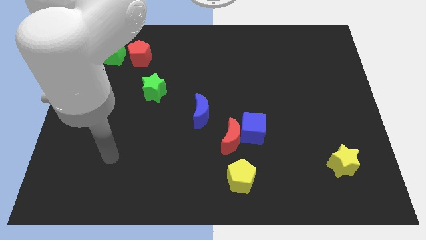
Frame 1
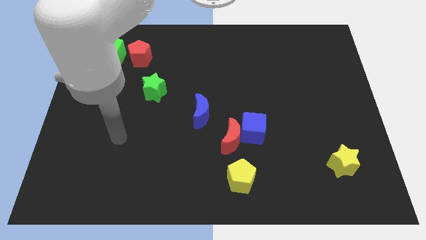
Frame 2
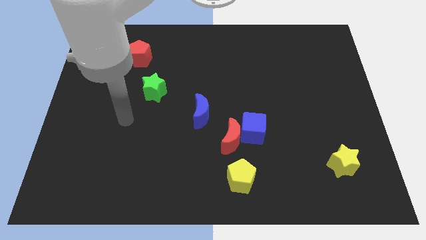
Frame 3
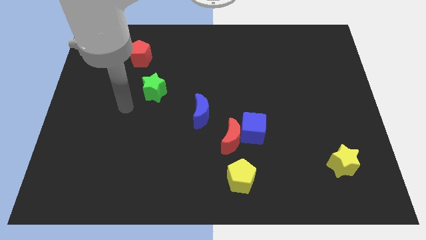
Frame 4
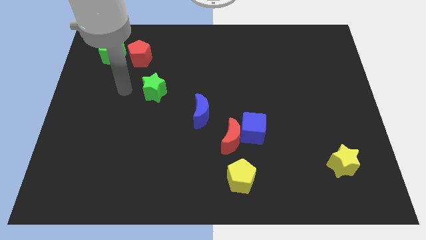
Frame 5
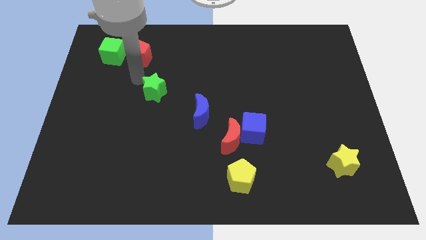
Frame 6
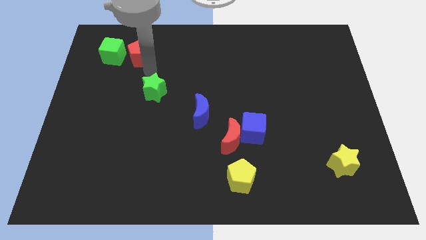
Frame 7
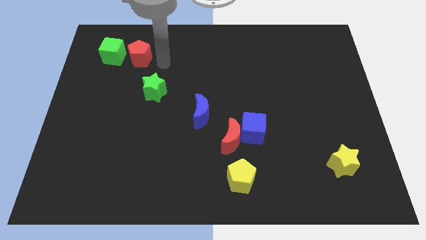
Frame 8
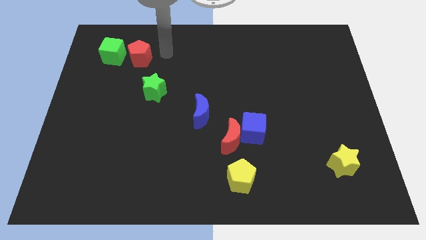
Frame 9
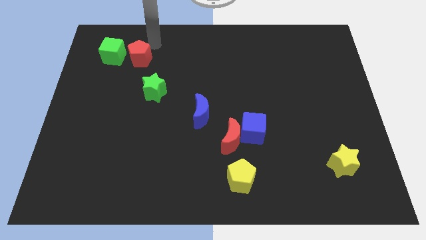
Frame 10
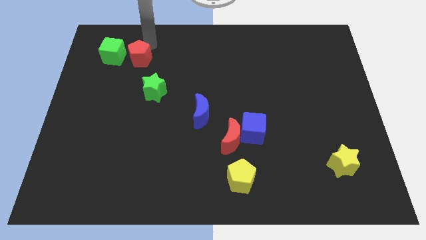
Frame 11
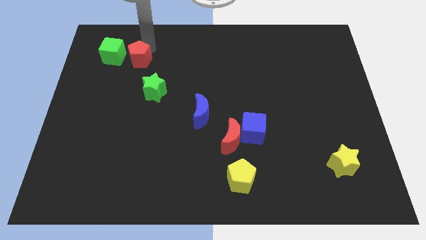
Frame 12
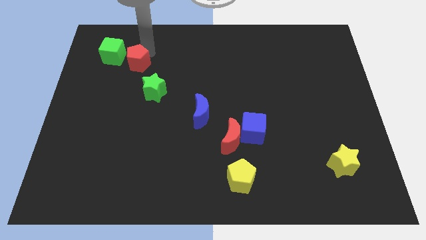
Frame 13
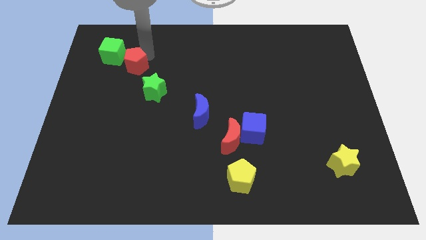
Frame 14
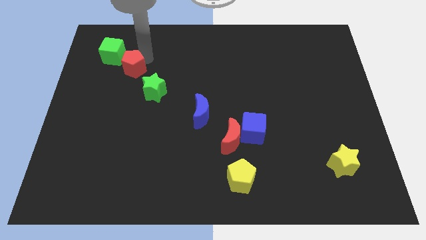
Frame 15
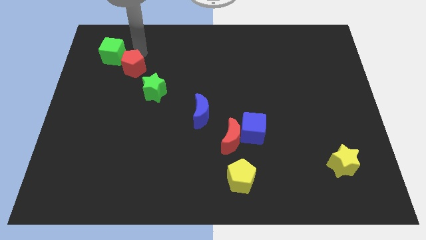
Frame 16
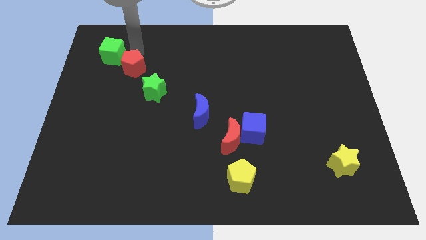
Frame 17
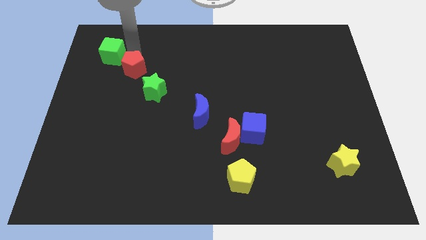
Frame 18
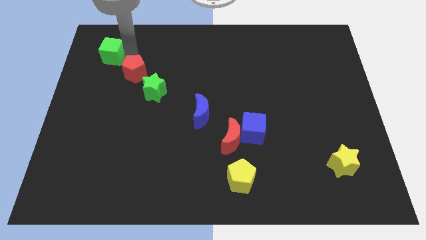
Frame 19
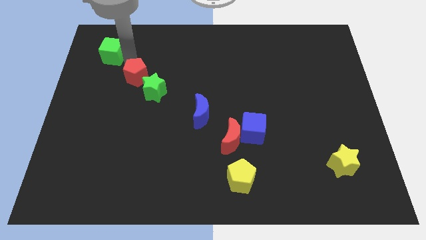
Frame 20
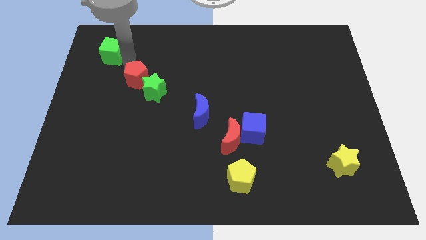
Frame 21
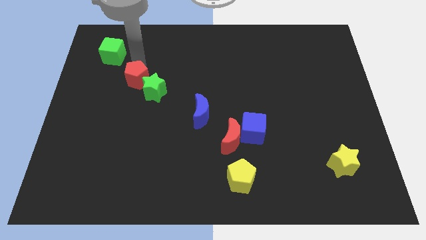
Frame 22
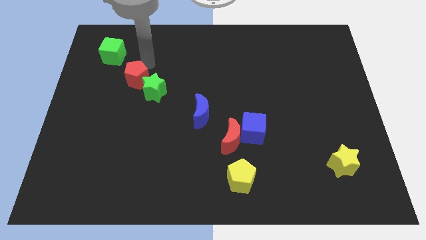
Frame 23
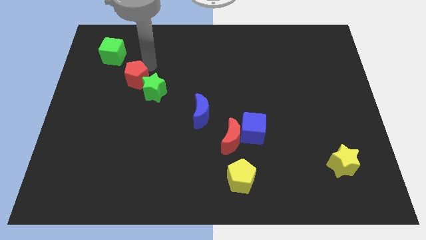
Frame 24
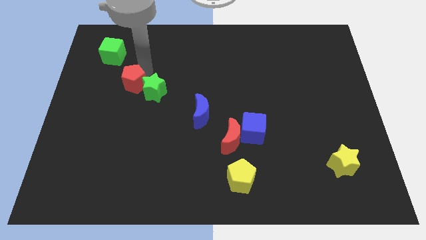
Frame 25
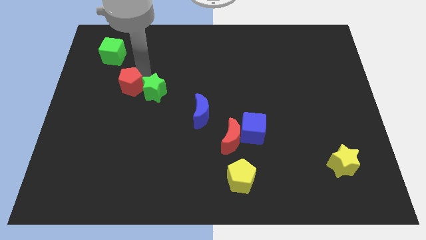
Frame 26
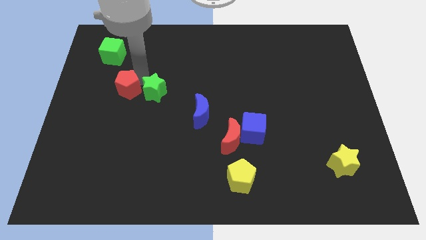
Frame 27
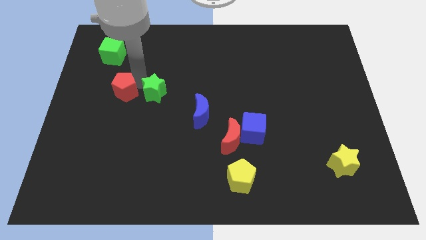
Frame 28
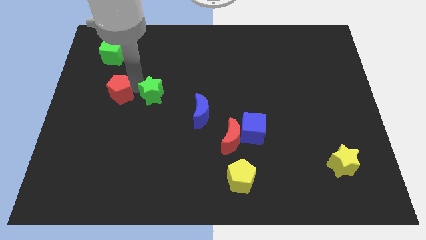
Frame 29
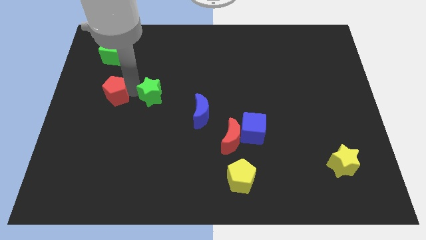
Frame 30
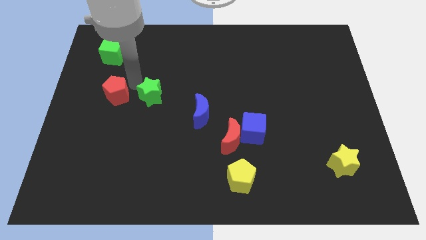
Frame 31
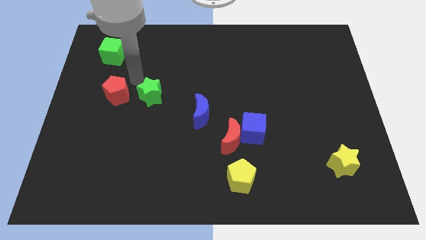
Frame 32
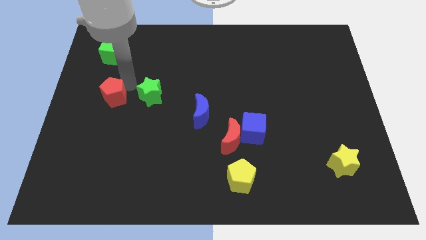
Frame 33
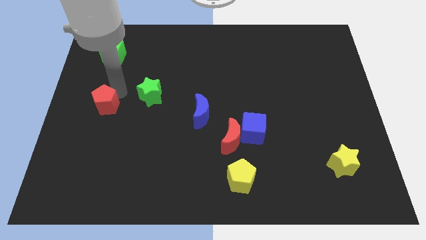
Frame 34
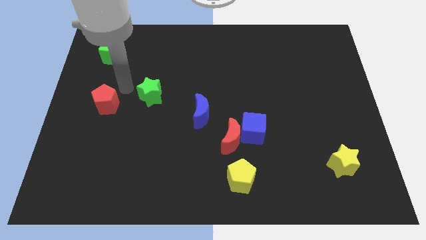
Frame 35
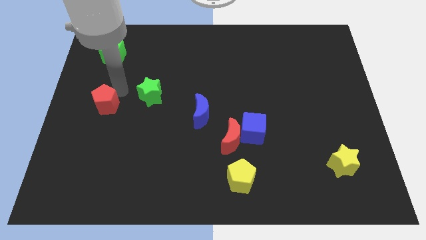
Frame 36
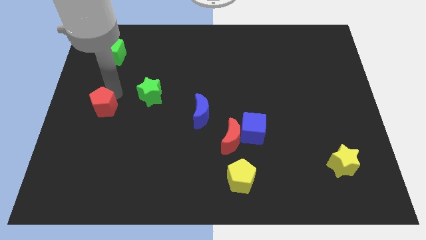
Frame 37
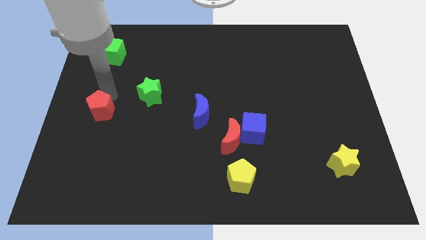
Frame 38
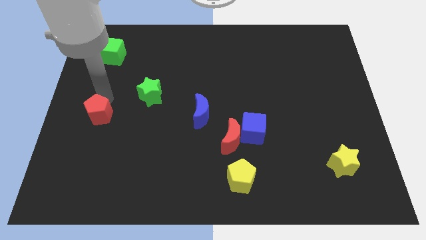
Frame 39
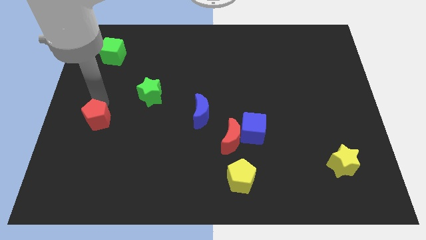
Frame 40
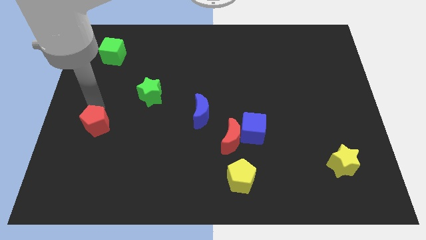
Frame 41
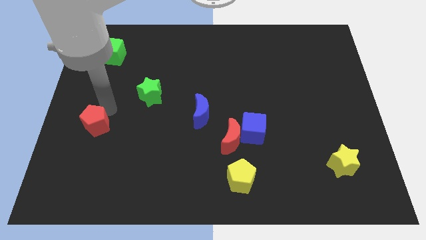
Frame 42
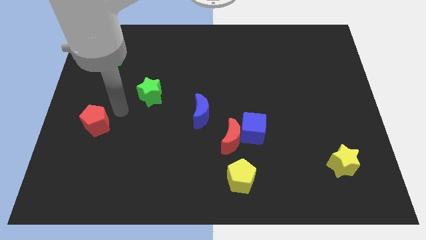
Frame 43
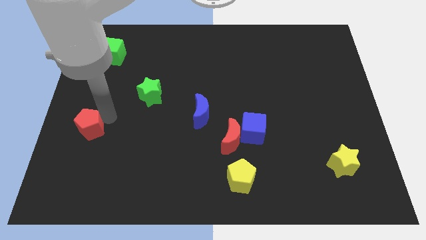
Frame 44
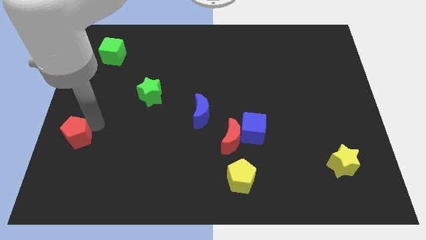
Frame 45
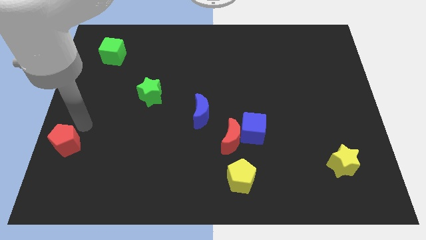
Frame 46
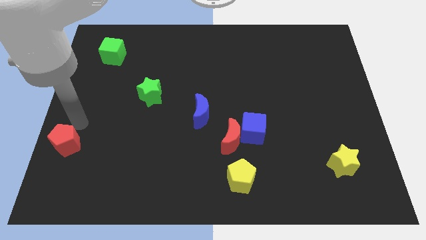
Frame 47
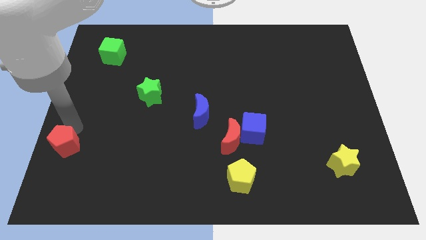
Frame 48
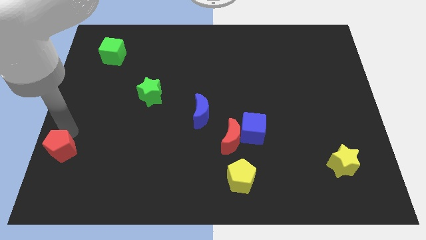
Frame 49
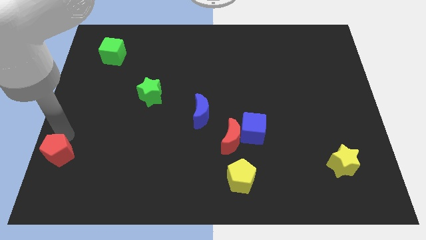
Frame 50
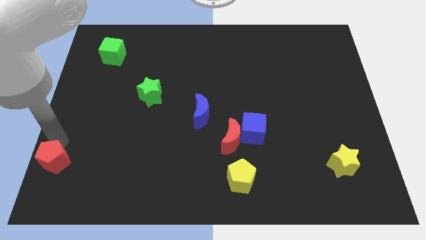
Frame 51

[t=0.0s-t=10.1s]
put the red pentagon to the bottom left corner
